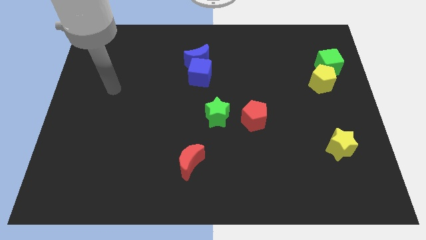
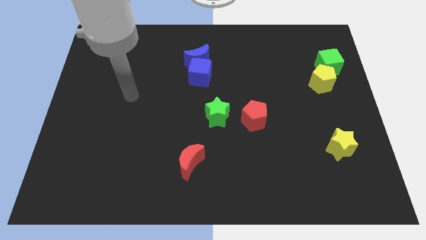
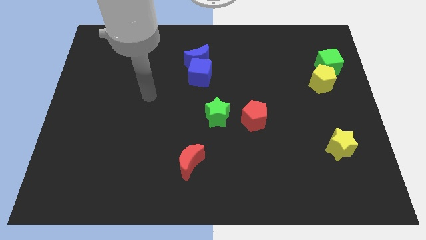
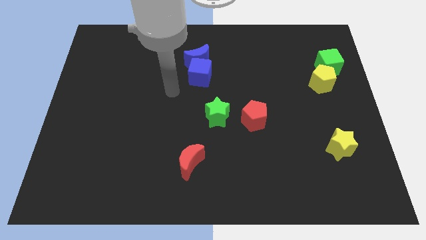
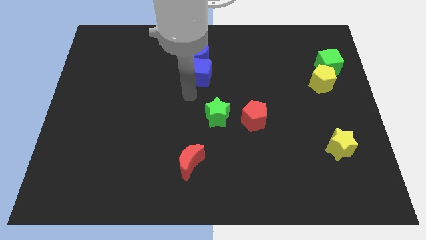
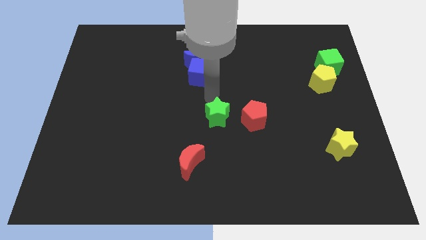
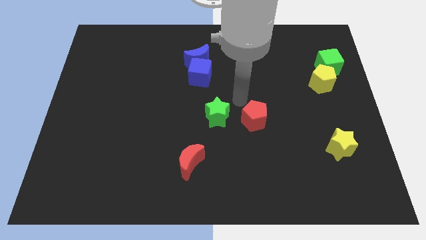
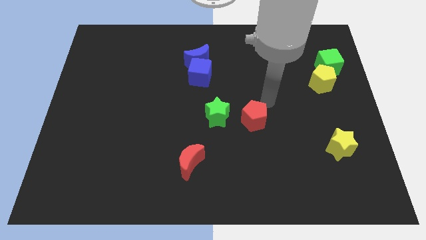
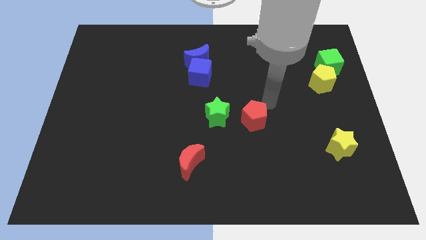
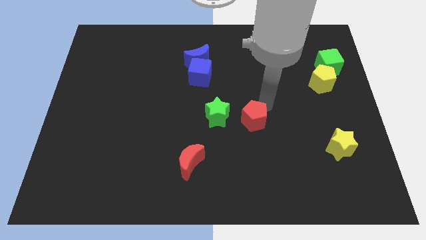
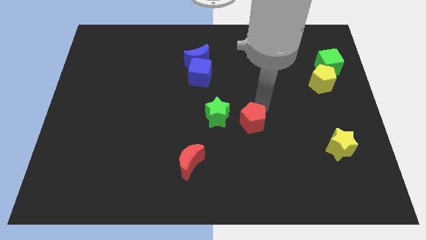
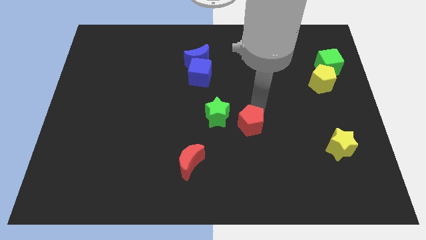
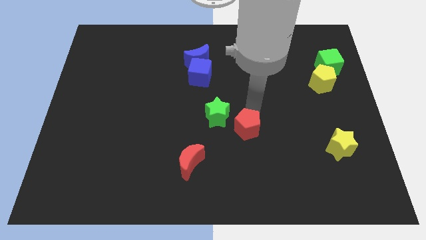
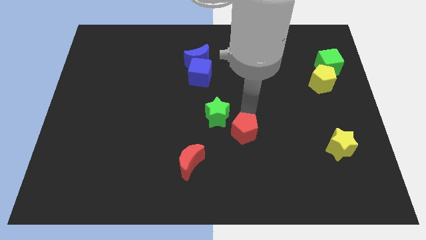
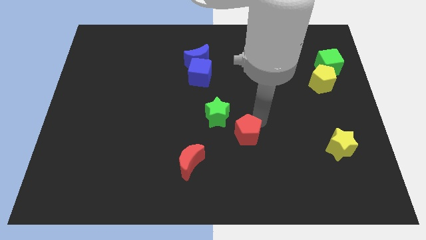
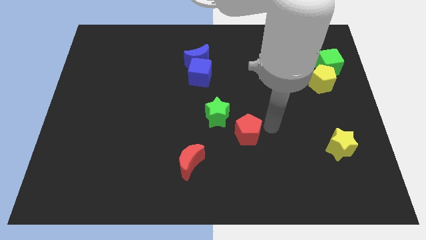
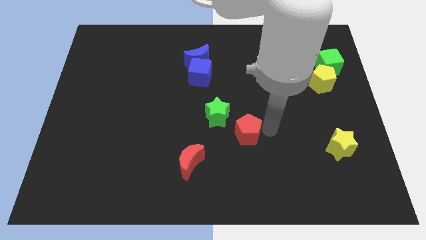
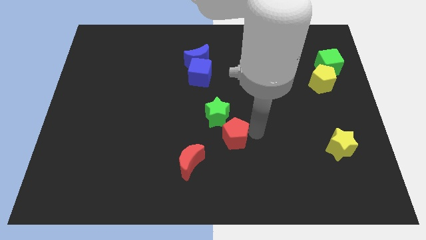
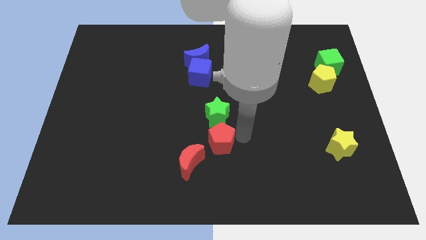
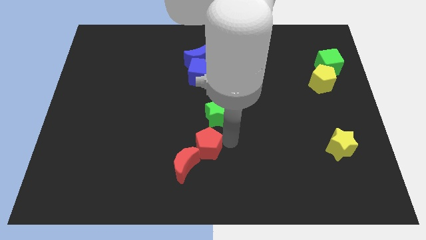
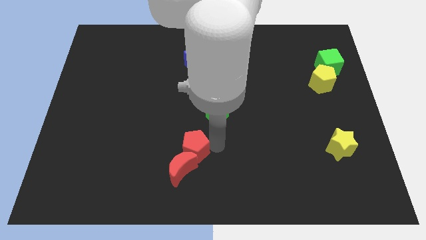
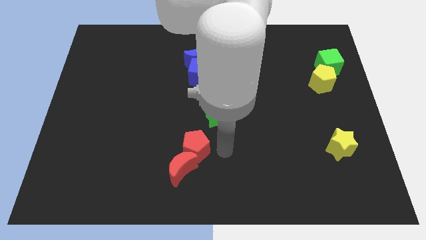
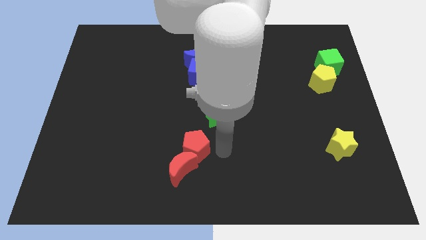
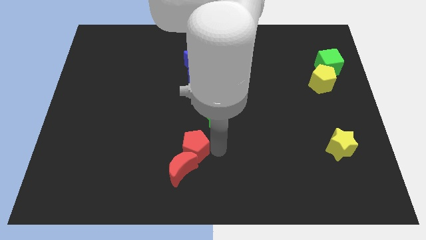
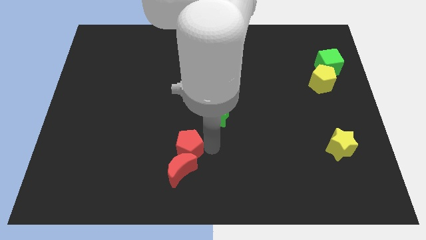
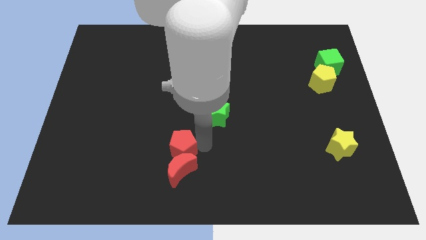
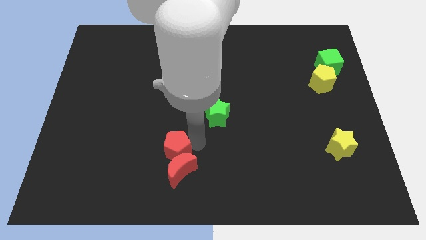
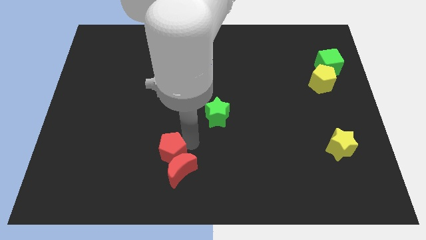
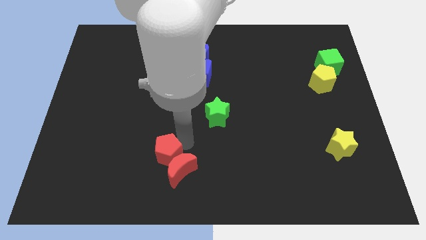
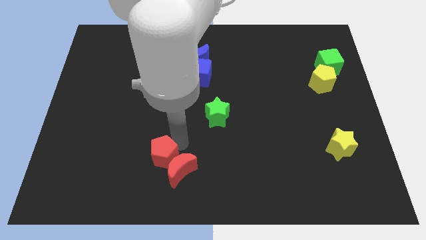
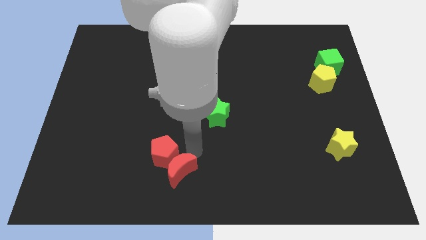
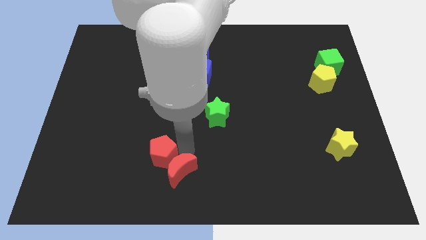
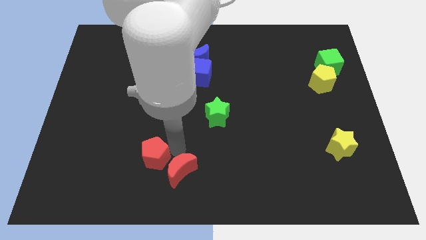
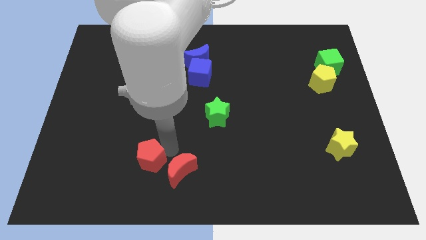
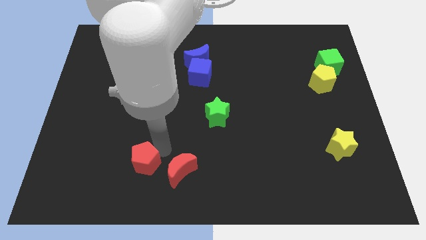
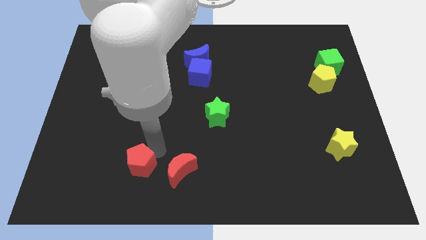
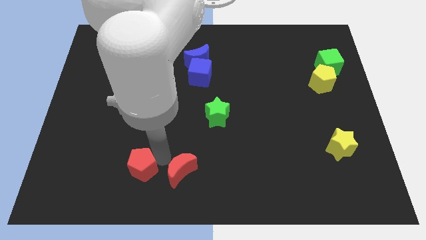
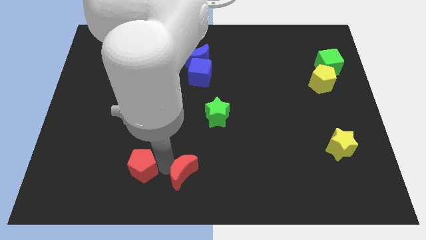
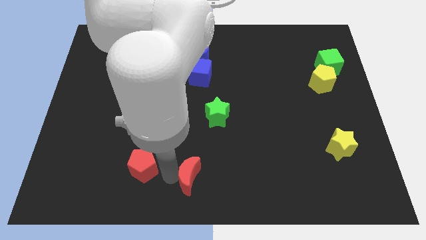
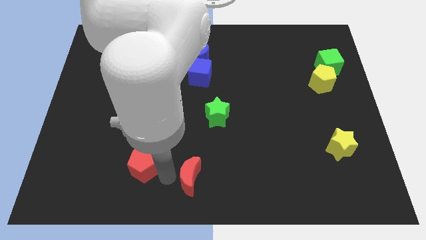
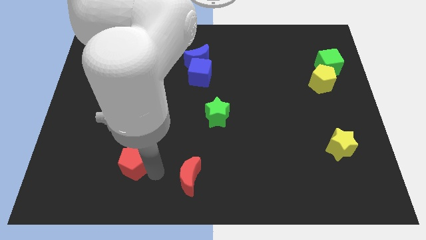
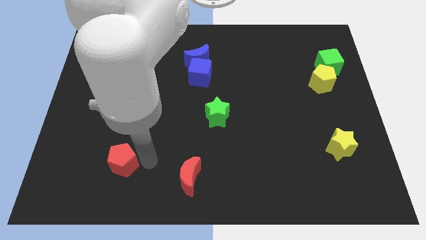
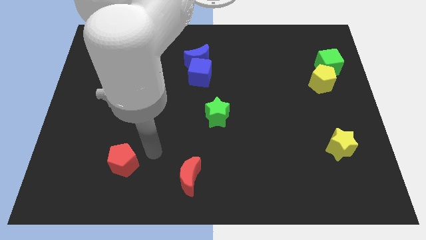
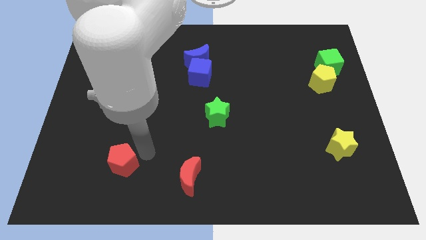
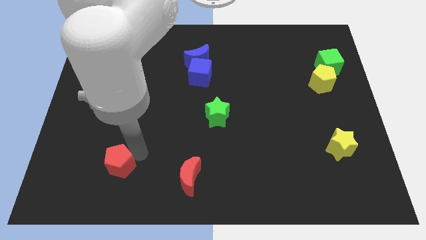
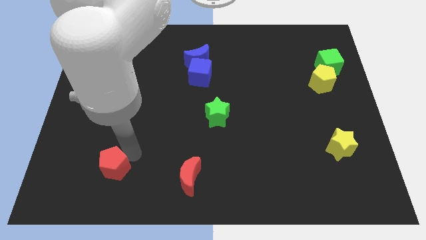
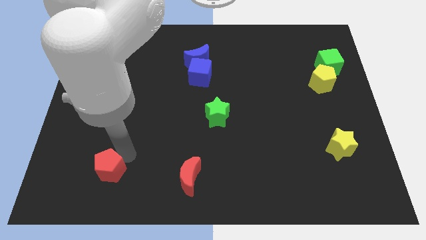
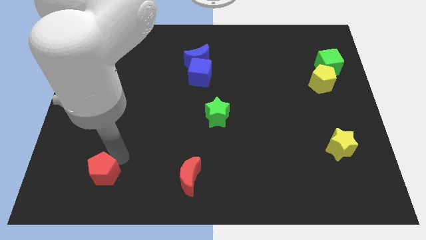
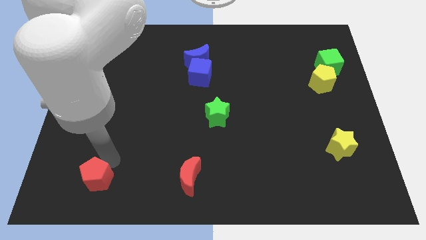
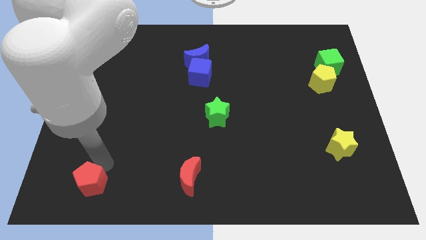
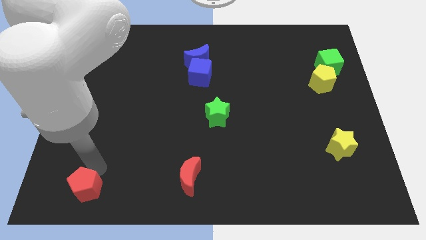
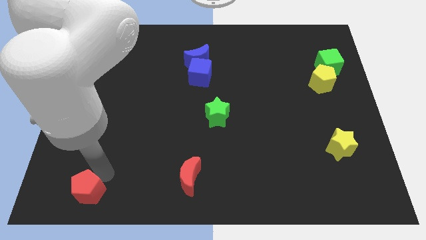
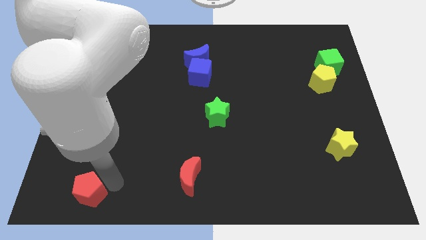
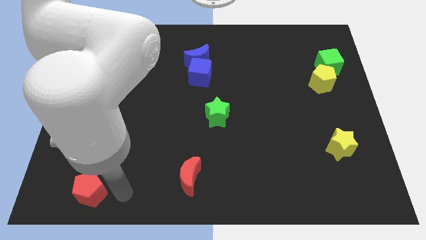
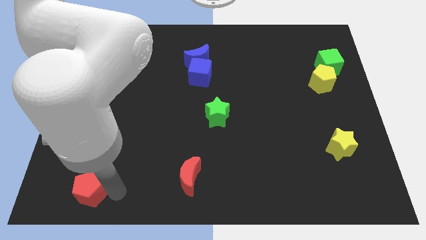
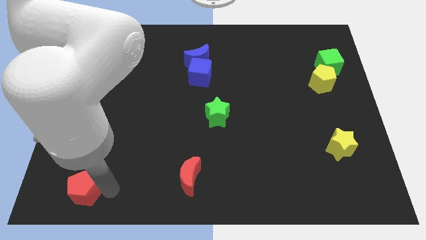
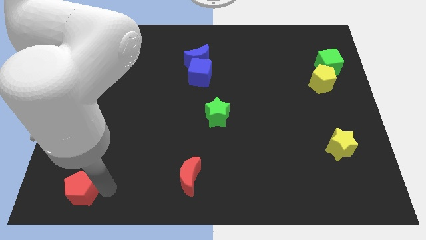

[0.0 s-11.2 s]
slide the red pentagon to the bottom left of the board
